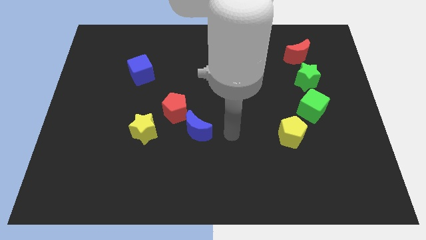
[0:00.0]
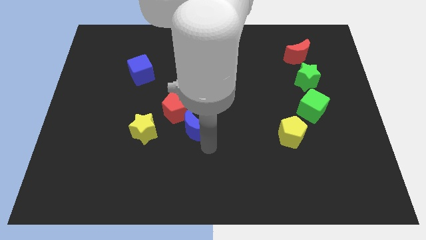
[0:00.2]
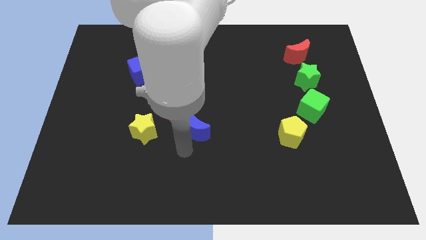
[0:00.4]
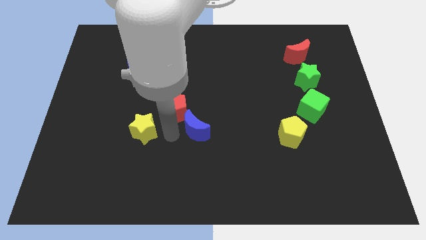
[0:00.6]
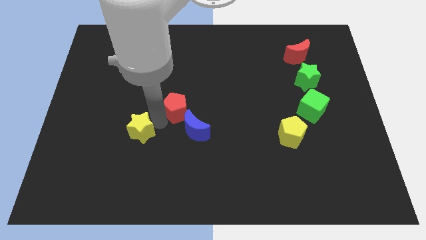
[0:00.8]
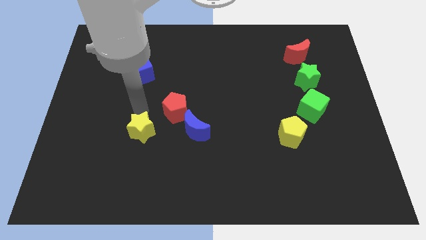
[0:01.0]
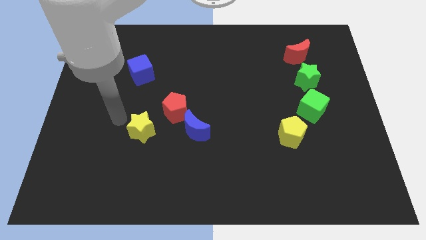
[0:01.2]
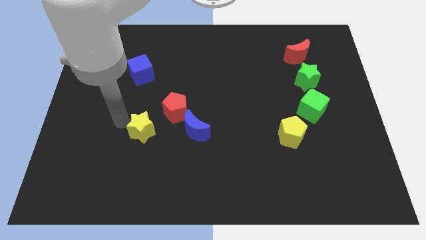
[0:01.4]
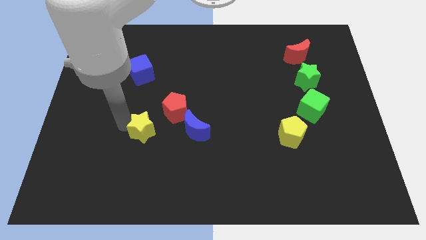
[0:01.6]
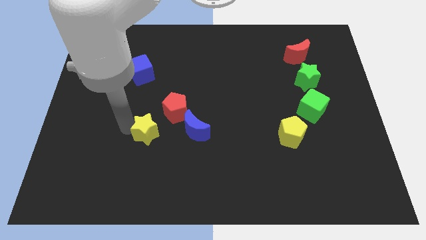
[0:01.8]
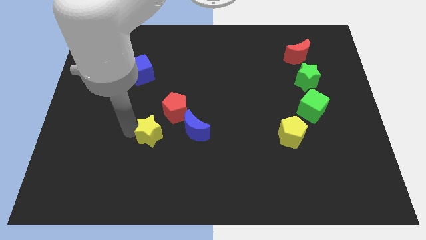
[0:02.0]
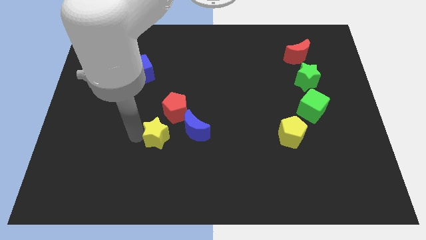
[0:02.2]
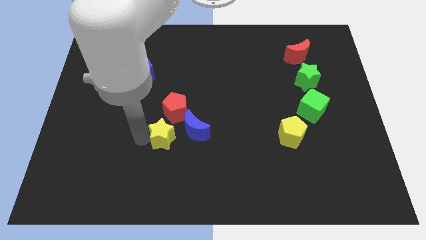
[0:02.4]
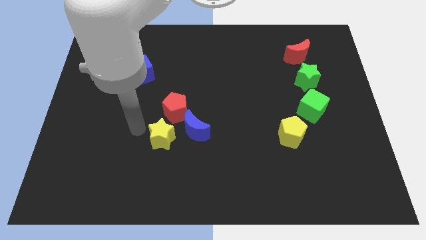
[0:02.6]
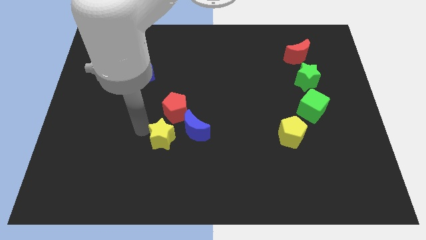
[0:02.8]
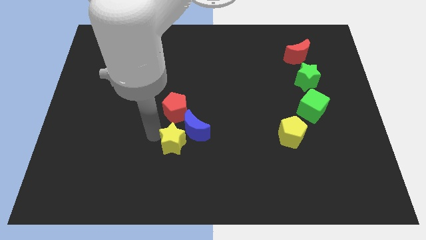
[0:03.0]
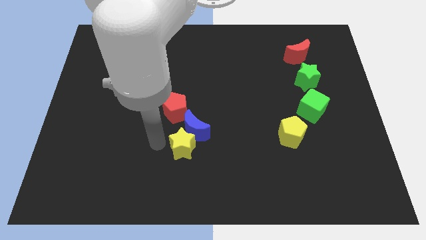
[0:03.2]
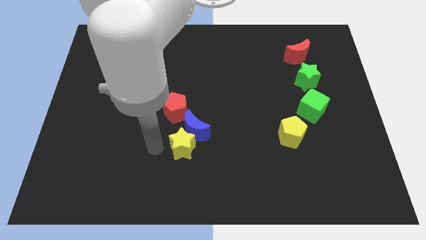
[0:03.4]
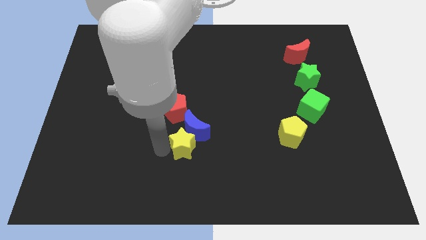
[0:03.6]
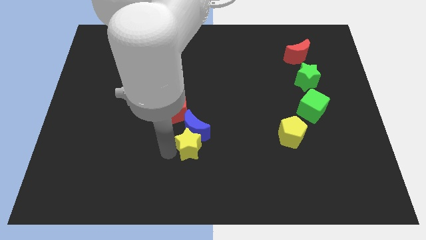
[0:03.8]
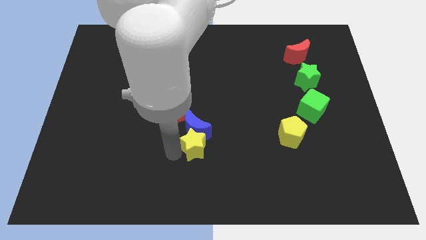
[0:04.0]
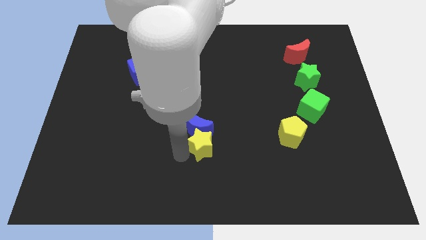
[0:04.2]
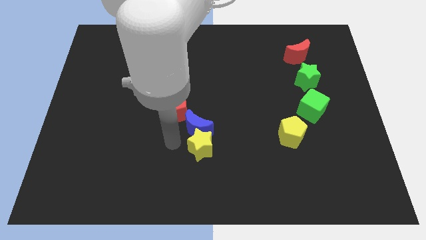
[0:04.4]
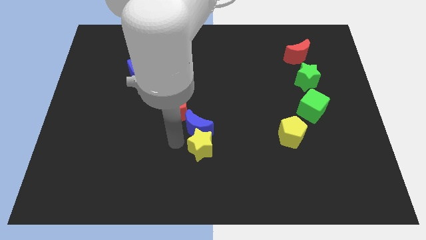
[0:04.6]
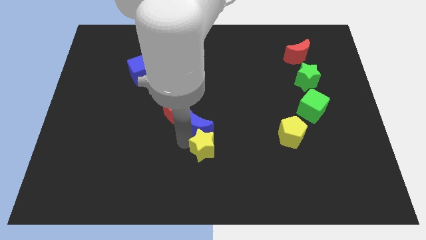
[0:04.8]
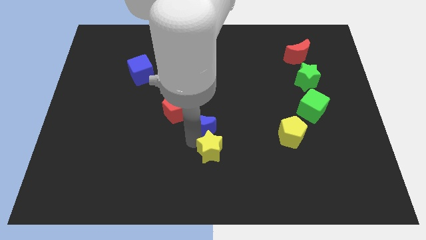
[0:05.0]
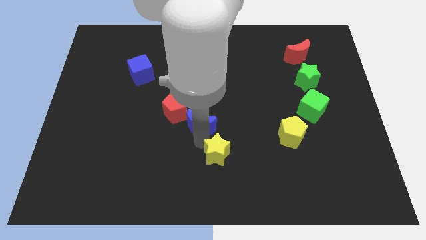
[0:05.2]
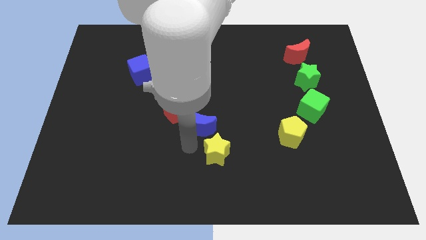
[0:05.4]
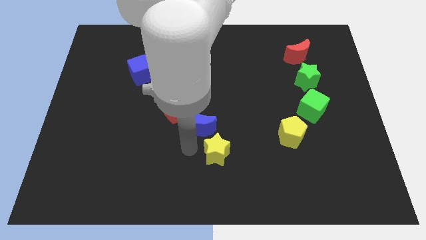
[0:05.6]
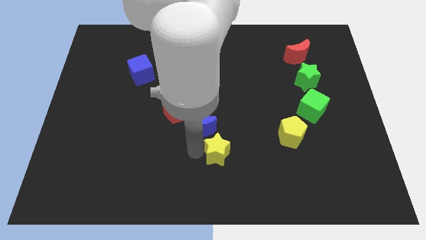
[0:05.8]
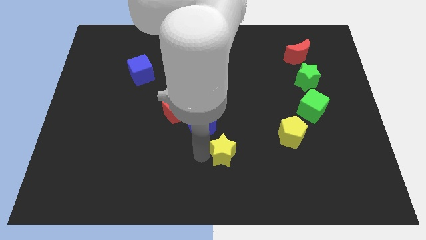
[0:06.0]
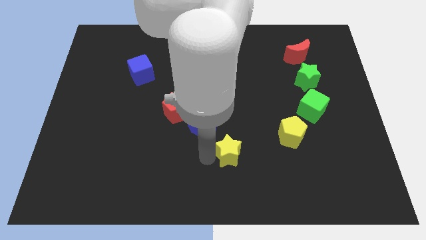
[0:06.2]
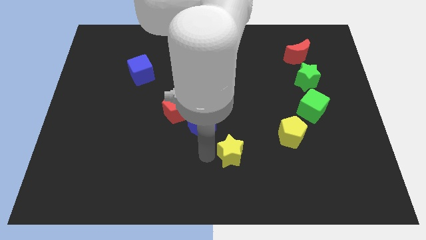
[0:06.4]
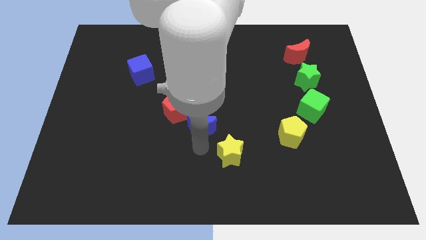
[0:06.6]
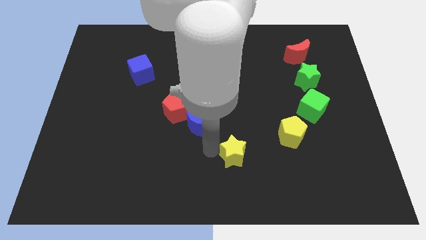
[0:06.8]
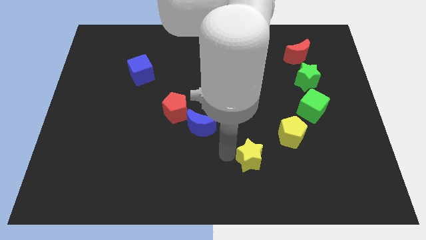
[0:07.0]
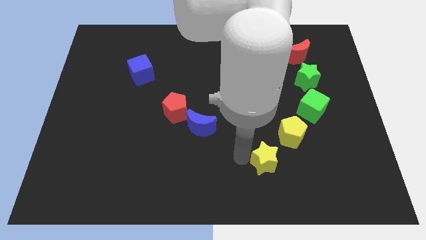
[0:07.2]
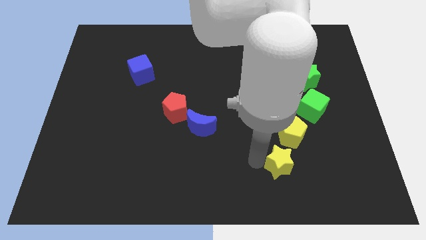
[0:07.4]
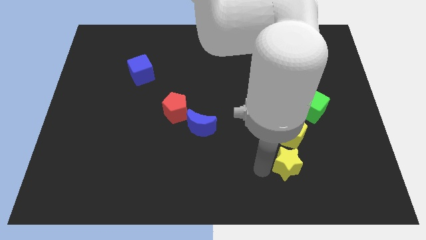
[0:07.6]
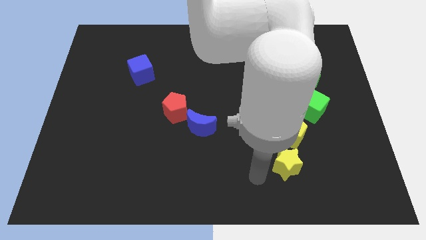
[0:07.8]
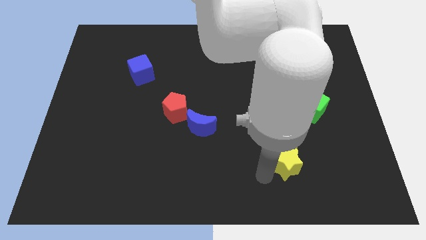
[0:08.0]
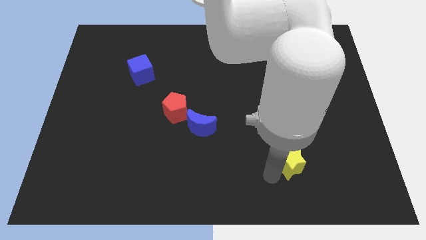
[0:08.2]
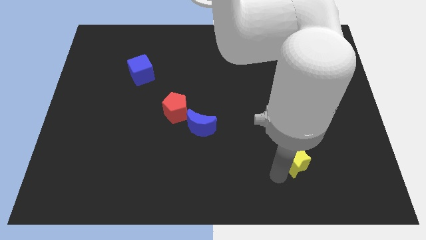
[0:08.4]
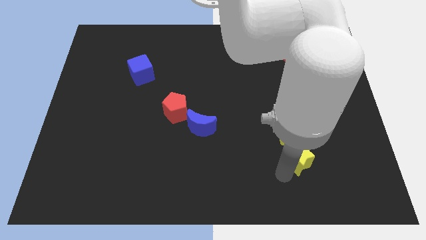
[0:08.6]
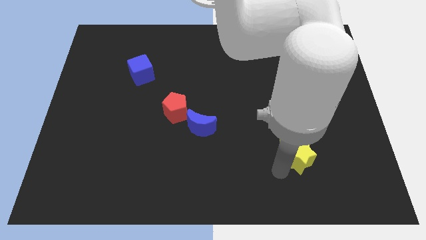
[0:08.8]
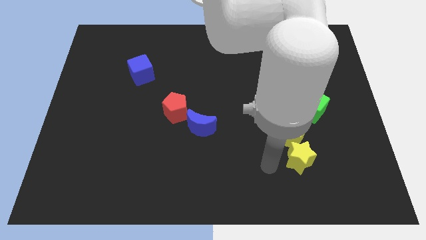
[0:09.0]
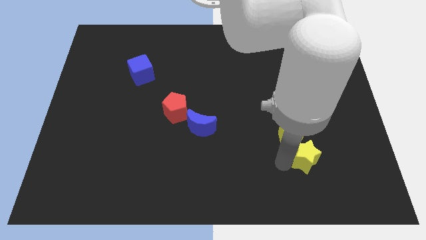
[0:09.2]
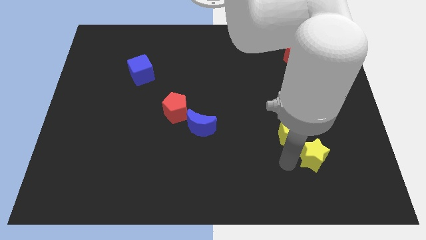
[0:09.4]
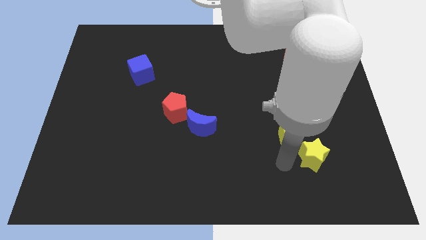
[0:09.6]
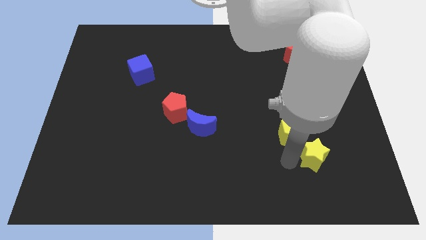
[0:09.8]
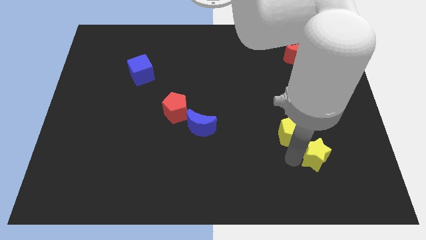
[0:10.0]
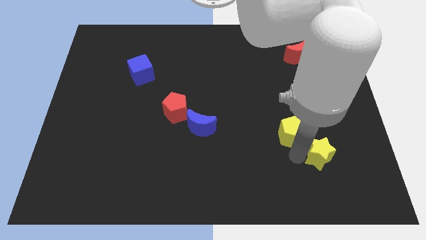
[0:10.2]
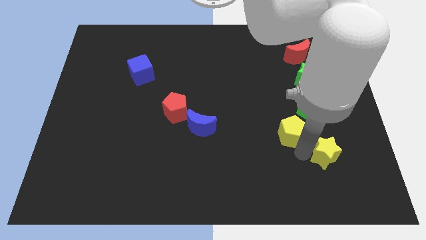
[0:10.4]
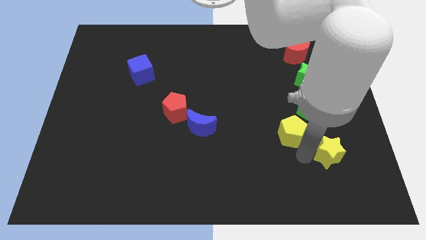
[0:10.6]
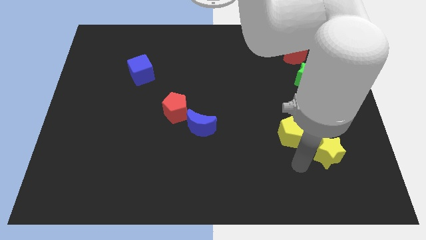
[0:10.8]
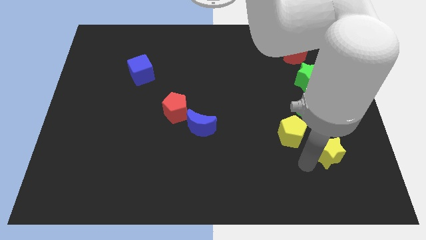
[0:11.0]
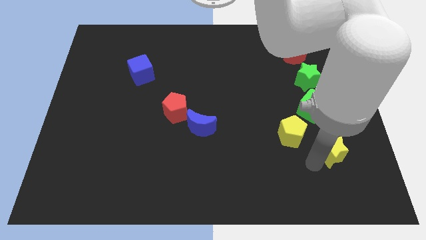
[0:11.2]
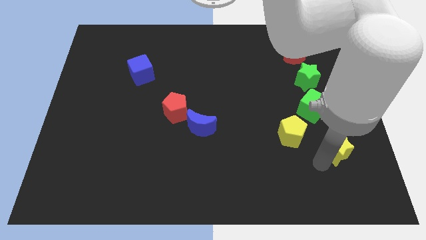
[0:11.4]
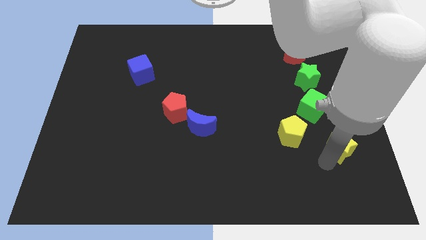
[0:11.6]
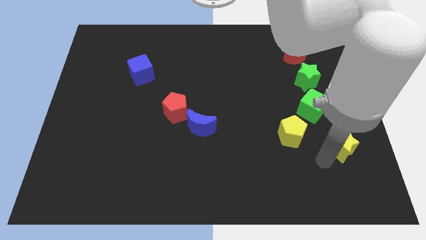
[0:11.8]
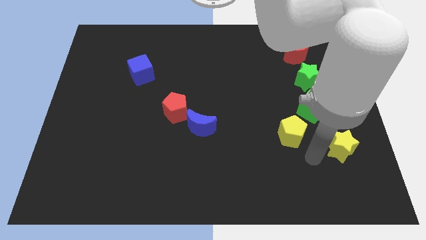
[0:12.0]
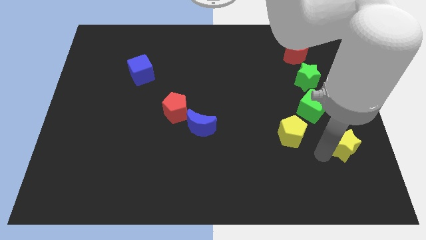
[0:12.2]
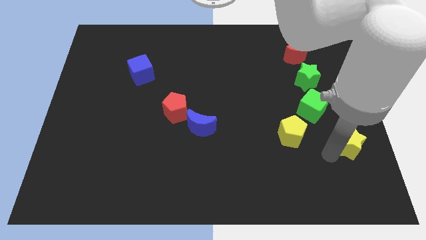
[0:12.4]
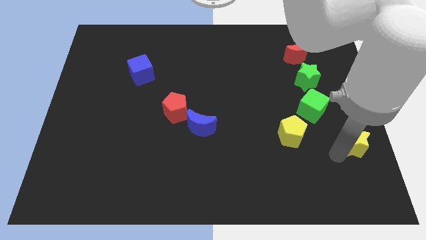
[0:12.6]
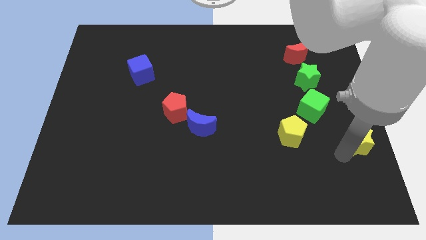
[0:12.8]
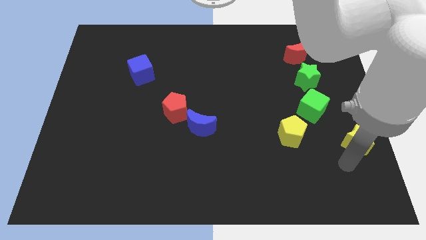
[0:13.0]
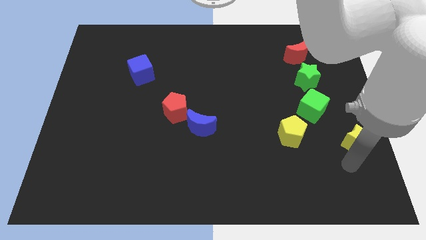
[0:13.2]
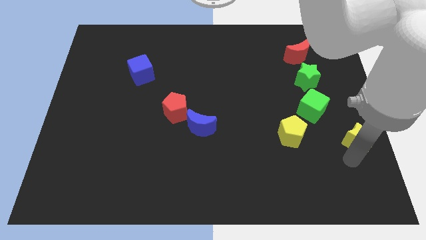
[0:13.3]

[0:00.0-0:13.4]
move the yellow star to the center right

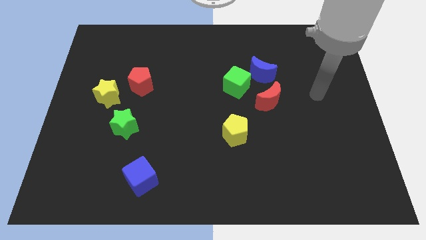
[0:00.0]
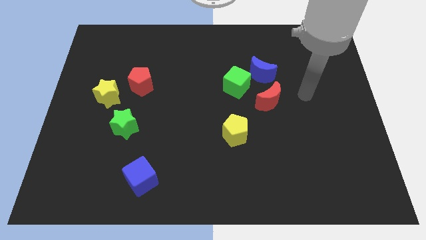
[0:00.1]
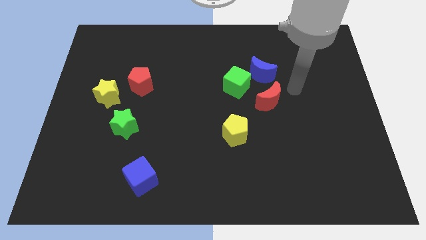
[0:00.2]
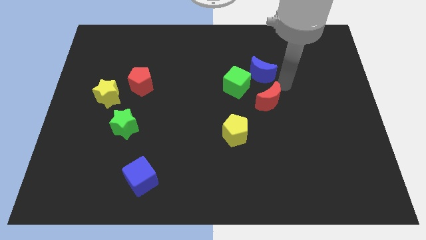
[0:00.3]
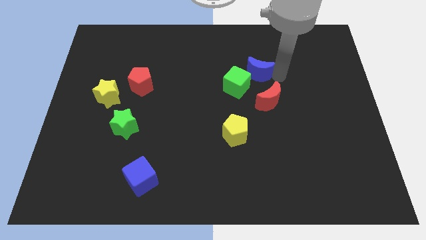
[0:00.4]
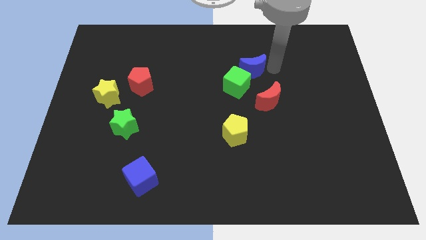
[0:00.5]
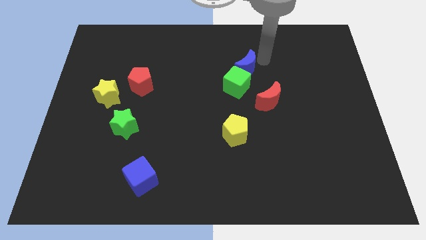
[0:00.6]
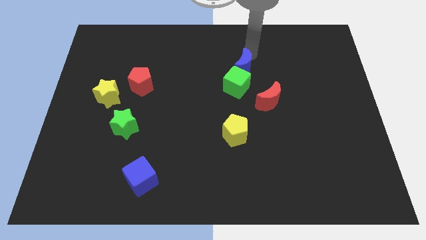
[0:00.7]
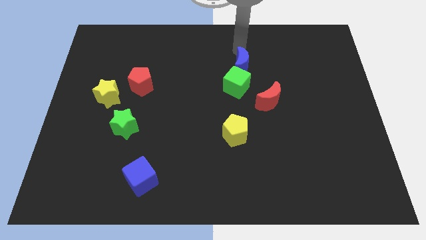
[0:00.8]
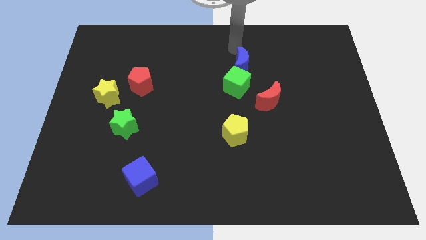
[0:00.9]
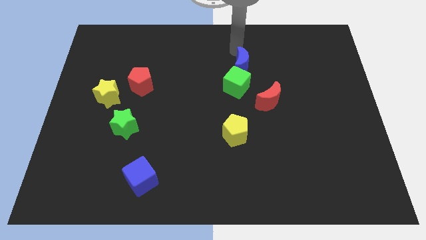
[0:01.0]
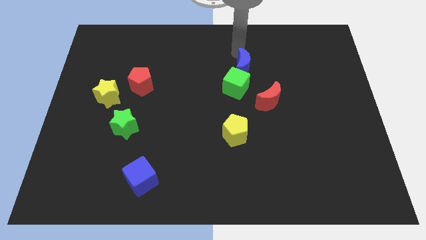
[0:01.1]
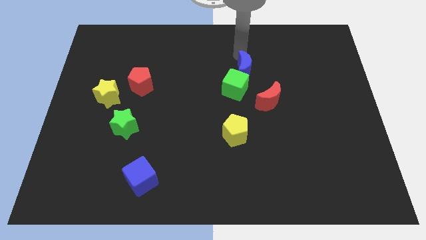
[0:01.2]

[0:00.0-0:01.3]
push the blue moon to the middle

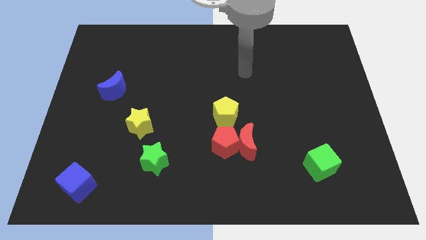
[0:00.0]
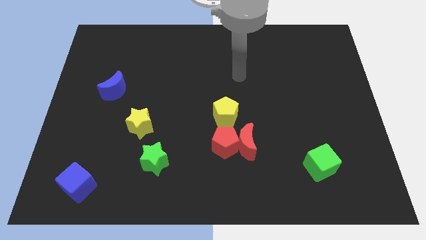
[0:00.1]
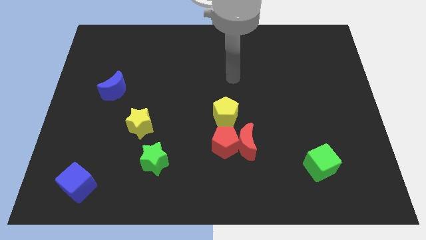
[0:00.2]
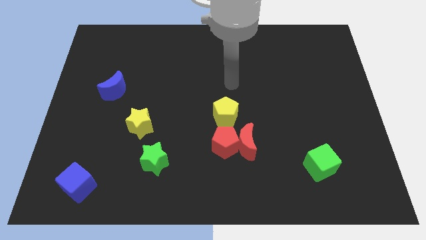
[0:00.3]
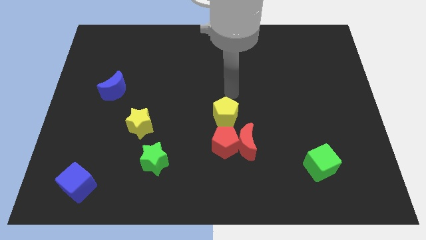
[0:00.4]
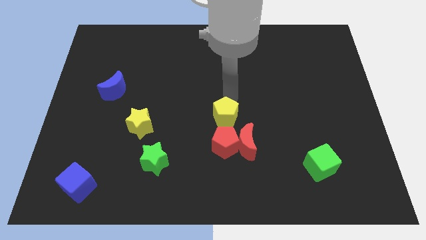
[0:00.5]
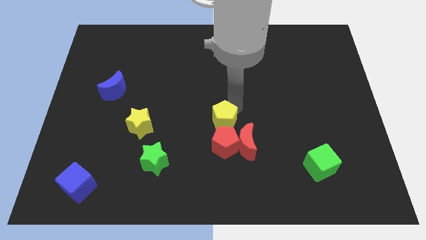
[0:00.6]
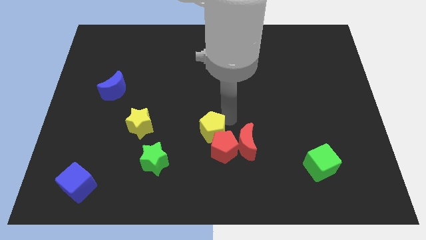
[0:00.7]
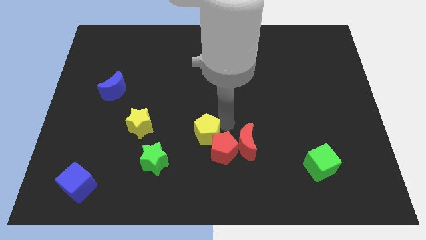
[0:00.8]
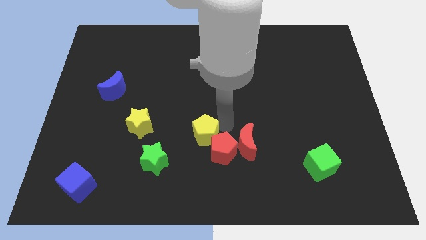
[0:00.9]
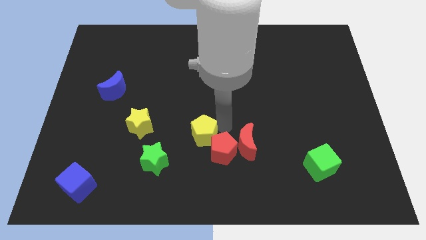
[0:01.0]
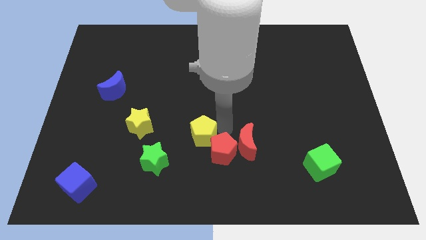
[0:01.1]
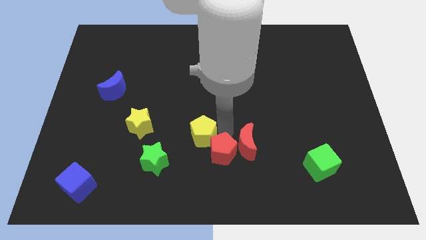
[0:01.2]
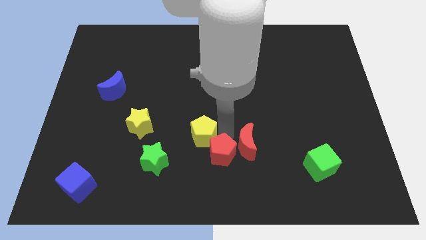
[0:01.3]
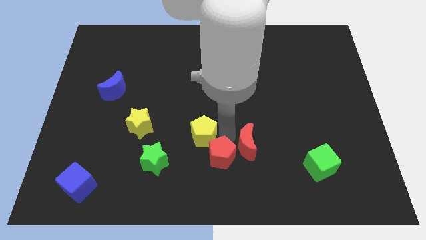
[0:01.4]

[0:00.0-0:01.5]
move the red pentagon to the bottom side
